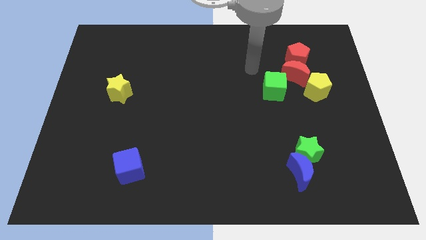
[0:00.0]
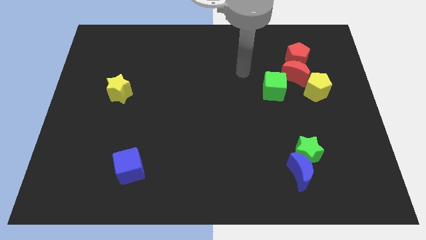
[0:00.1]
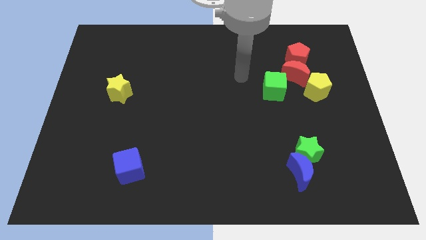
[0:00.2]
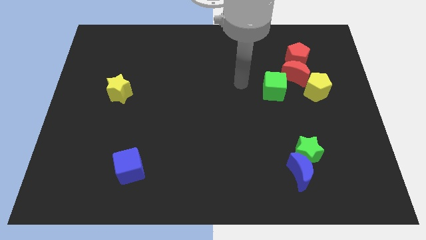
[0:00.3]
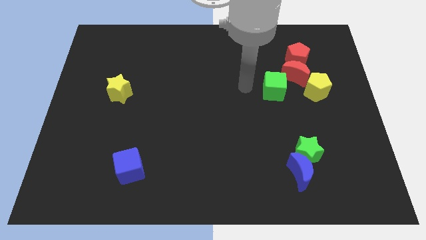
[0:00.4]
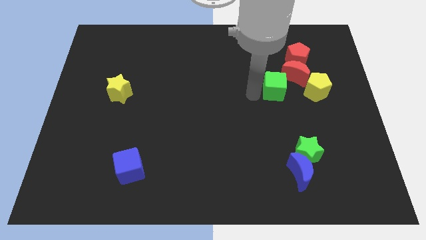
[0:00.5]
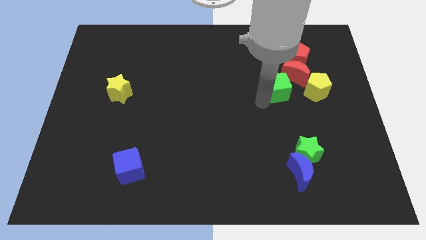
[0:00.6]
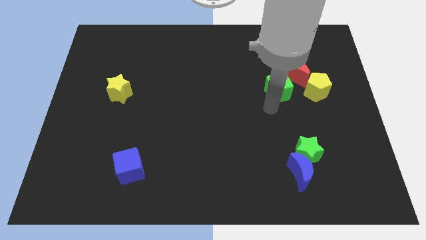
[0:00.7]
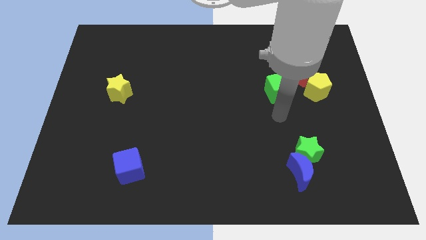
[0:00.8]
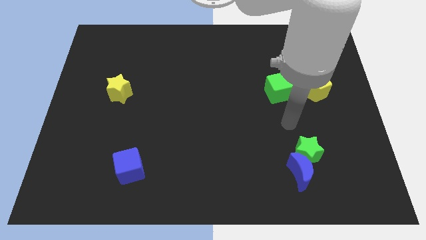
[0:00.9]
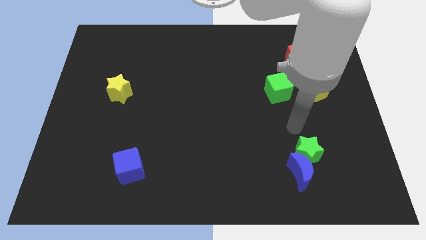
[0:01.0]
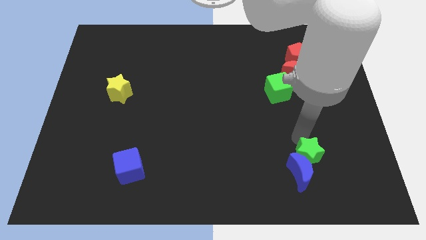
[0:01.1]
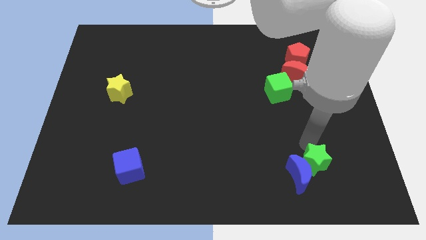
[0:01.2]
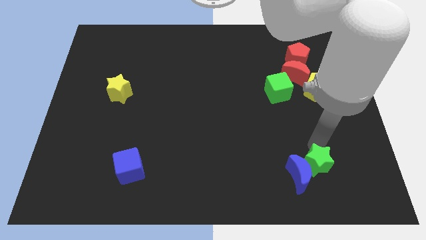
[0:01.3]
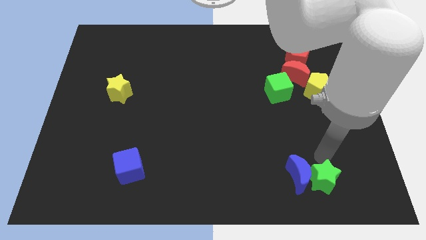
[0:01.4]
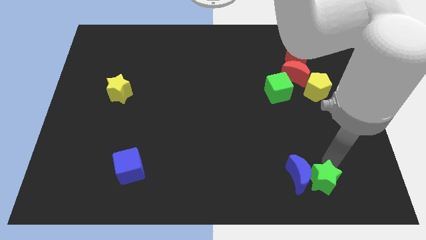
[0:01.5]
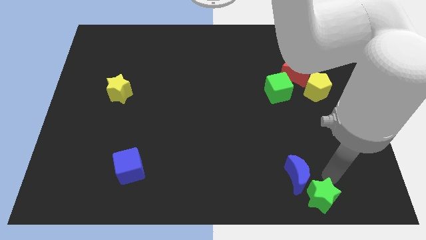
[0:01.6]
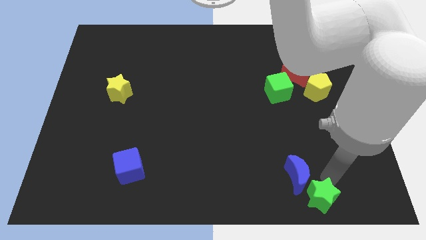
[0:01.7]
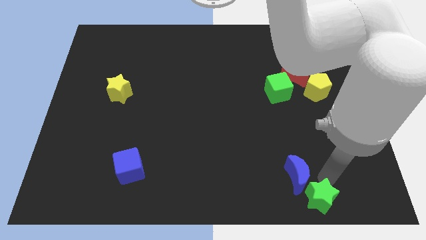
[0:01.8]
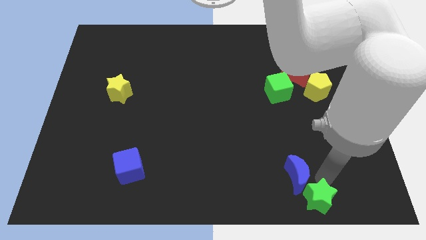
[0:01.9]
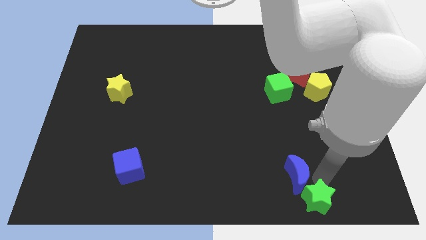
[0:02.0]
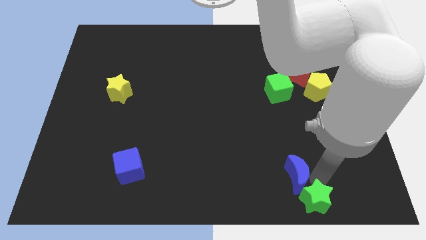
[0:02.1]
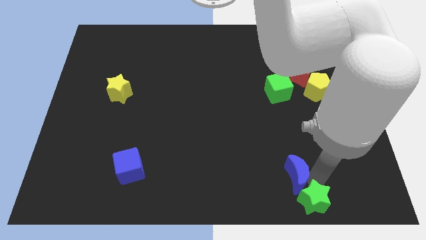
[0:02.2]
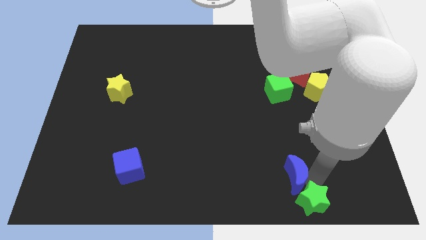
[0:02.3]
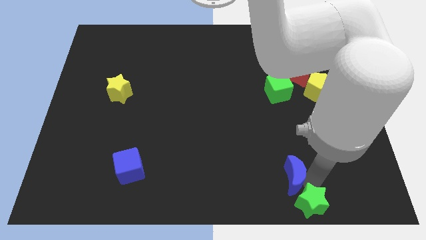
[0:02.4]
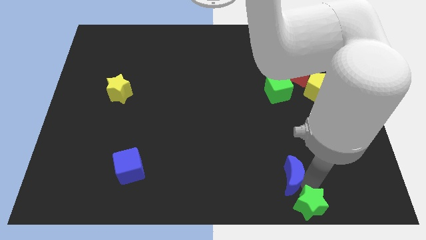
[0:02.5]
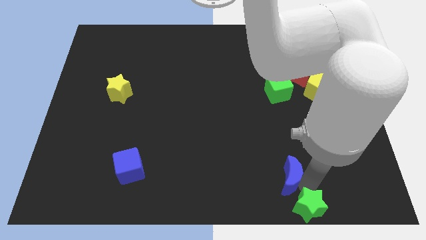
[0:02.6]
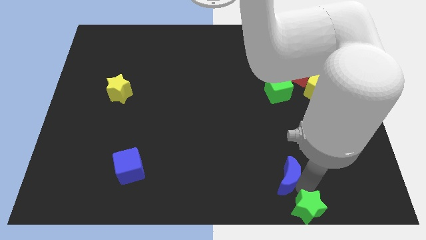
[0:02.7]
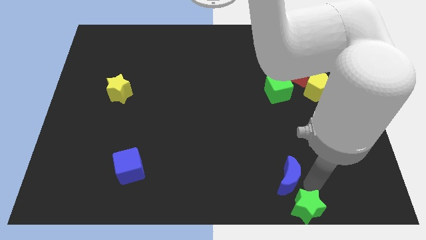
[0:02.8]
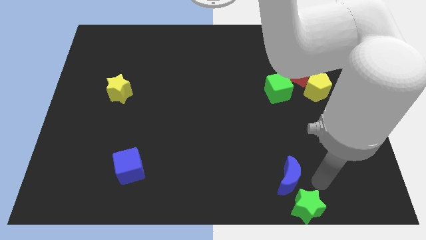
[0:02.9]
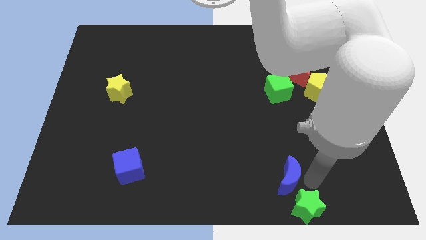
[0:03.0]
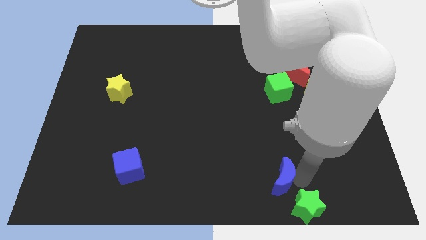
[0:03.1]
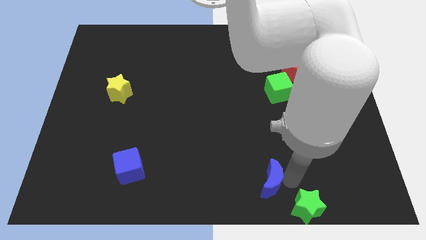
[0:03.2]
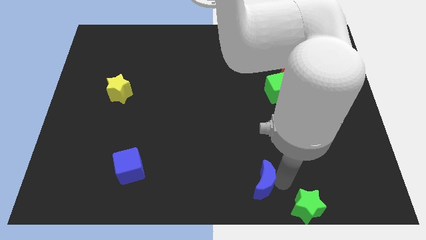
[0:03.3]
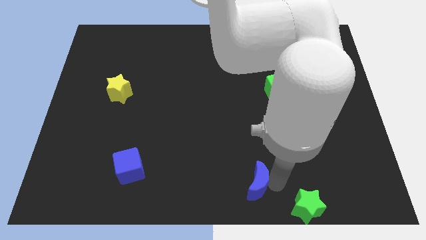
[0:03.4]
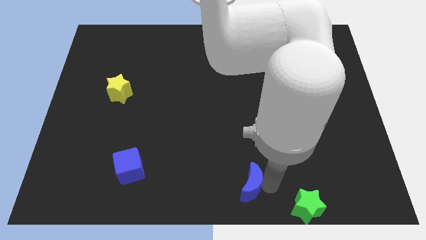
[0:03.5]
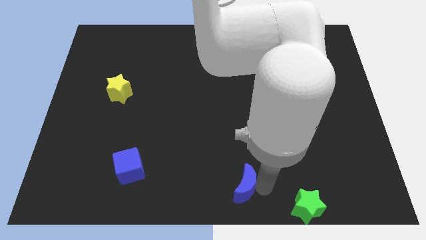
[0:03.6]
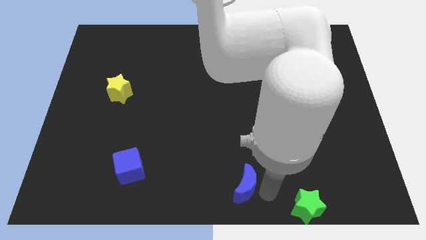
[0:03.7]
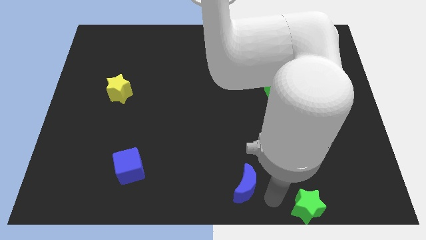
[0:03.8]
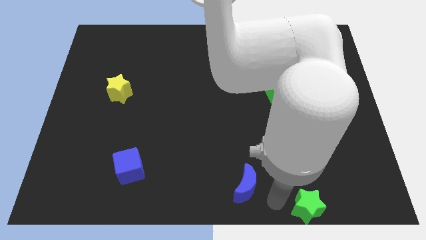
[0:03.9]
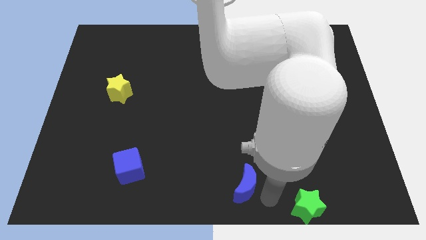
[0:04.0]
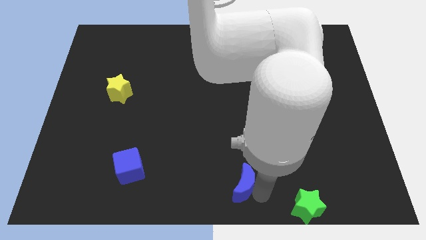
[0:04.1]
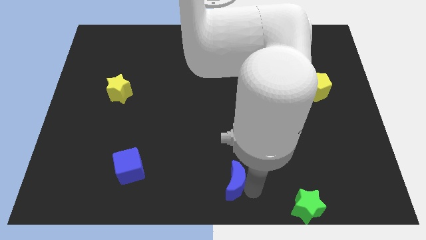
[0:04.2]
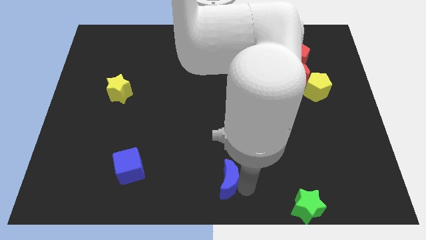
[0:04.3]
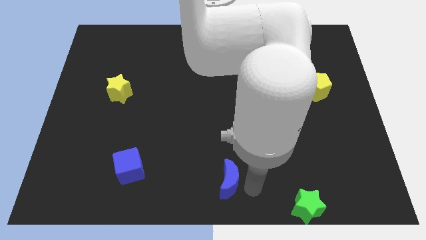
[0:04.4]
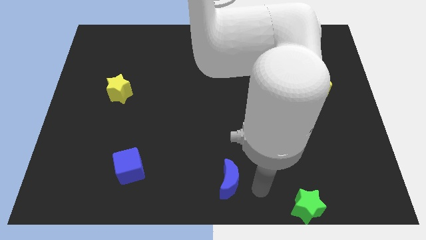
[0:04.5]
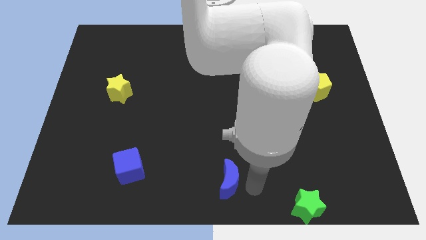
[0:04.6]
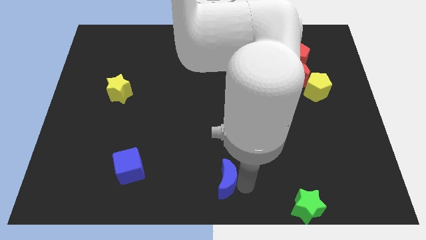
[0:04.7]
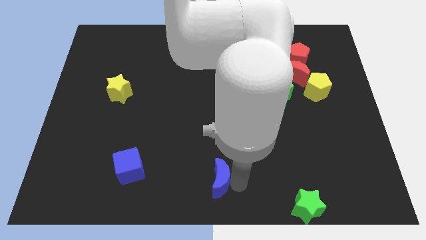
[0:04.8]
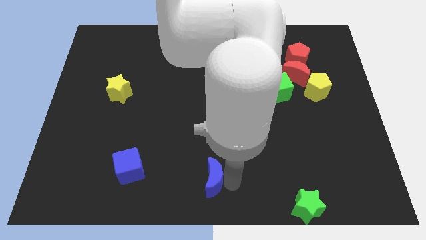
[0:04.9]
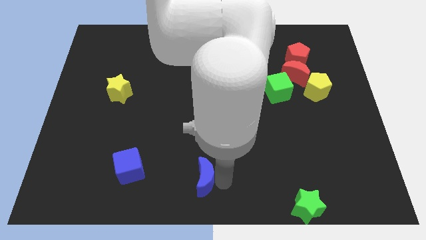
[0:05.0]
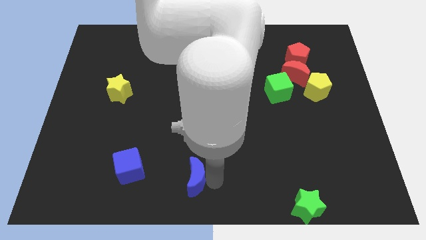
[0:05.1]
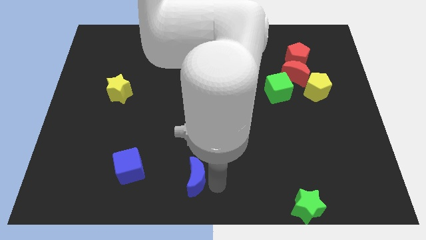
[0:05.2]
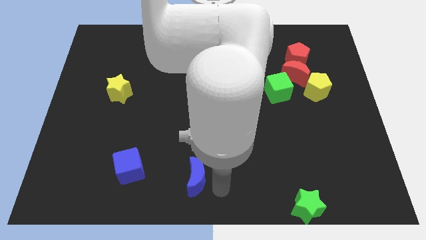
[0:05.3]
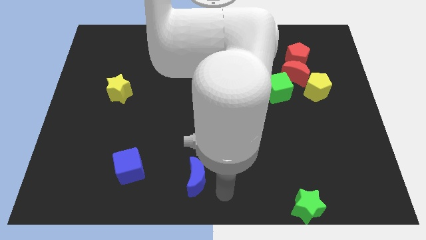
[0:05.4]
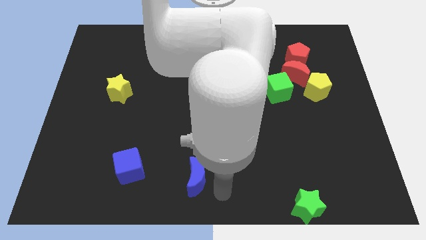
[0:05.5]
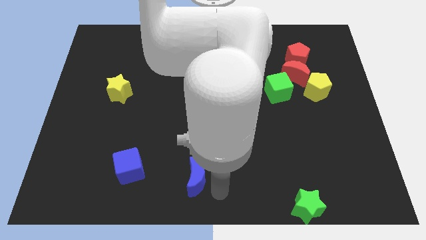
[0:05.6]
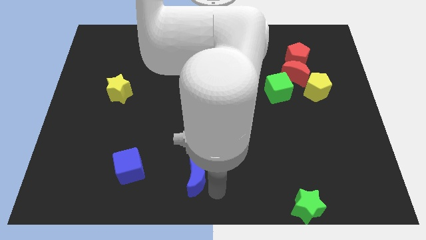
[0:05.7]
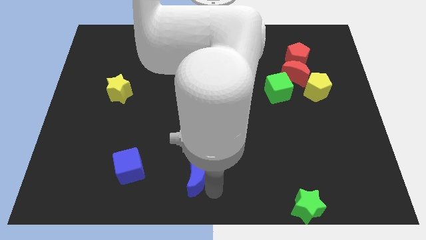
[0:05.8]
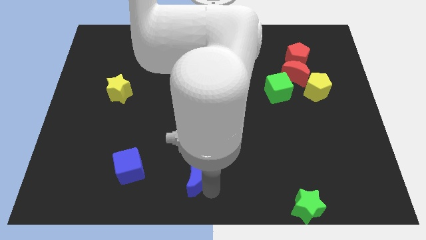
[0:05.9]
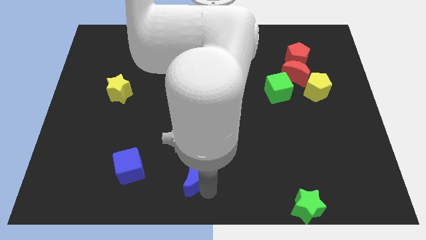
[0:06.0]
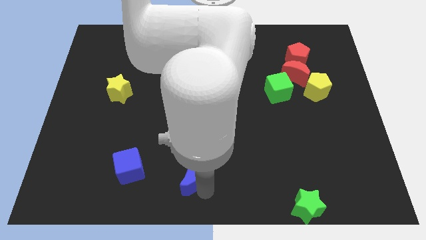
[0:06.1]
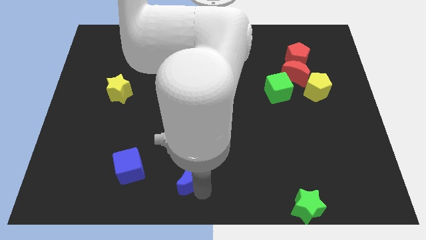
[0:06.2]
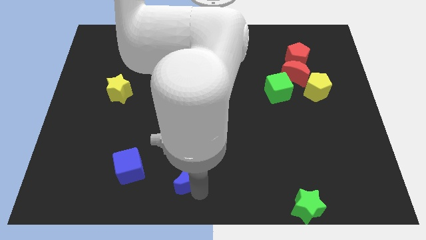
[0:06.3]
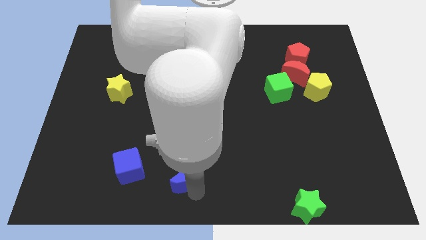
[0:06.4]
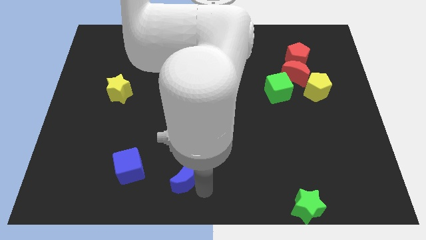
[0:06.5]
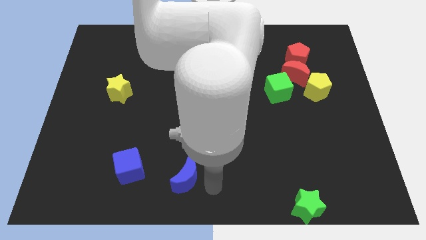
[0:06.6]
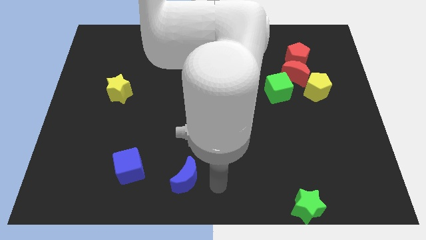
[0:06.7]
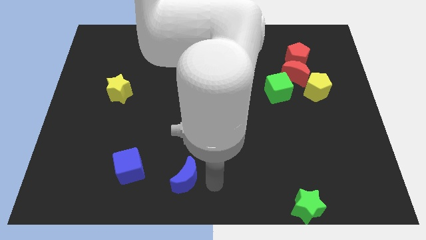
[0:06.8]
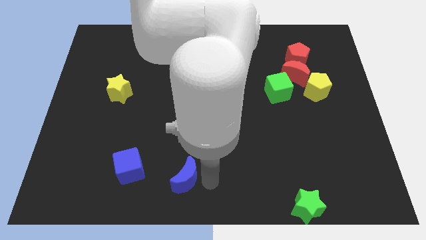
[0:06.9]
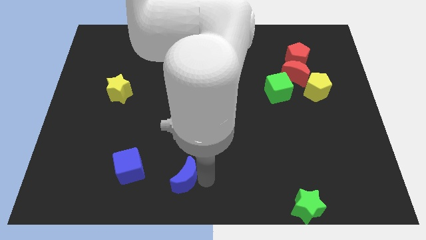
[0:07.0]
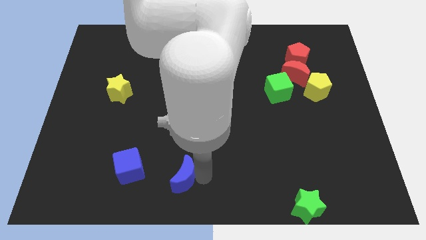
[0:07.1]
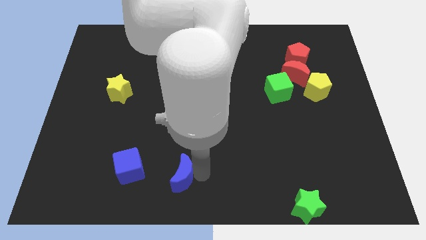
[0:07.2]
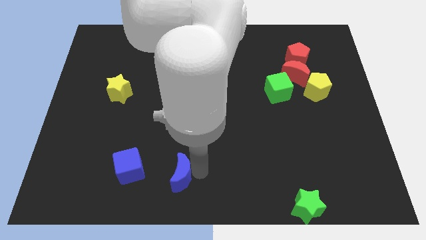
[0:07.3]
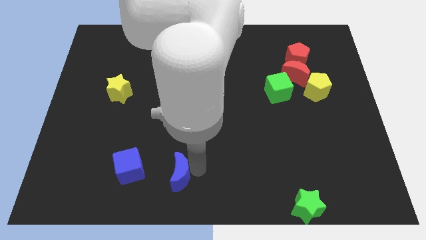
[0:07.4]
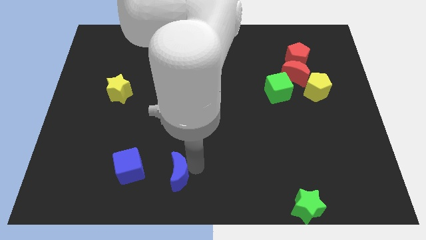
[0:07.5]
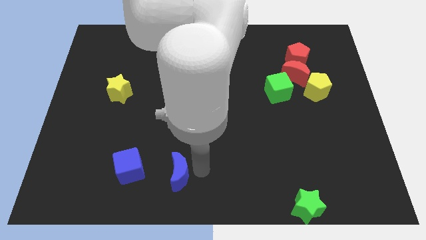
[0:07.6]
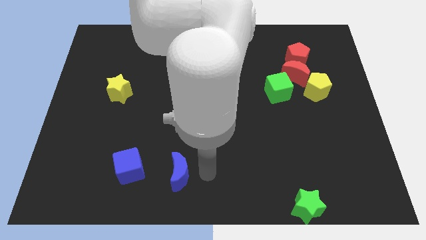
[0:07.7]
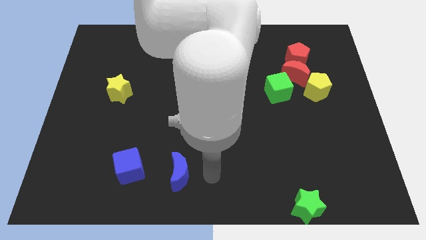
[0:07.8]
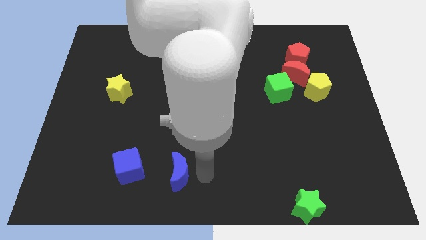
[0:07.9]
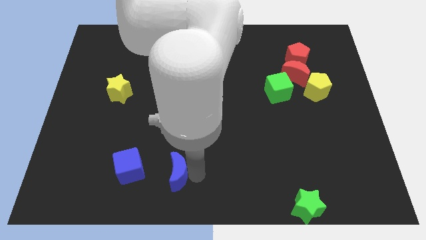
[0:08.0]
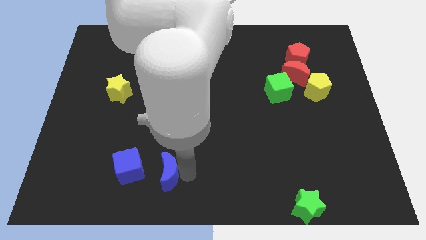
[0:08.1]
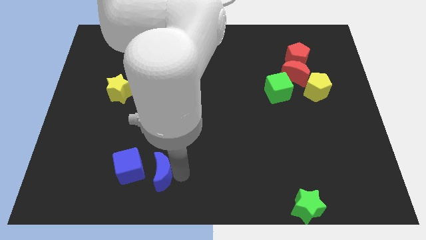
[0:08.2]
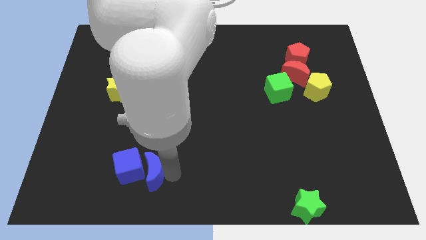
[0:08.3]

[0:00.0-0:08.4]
put the blue moon towards the blue cube
